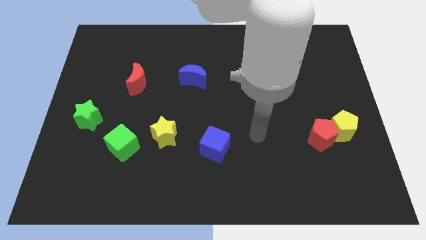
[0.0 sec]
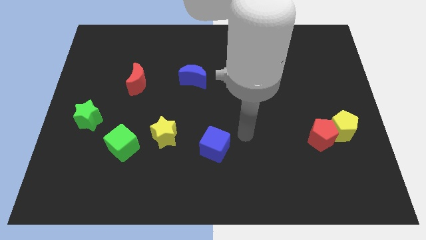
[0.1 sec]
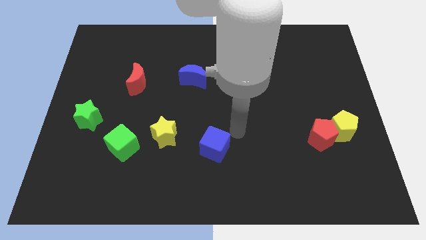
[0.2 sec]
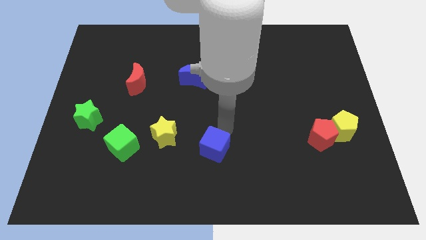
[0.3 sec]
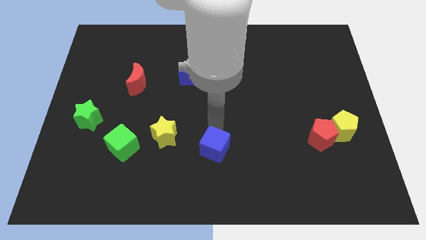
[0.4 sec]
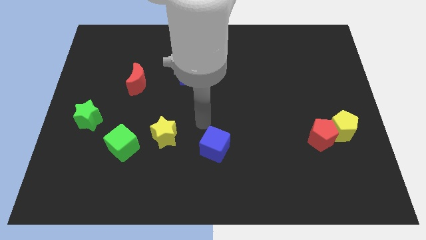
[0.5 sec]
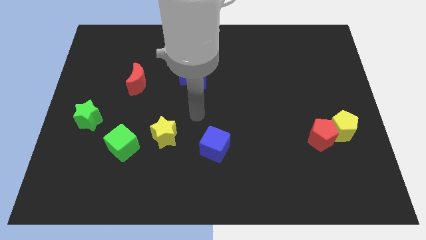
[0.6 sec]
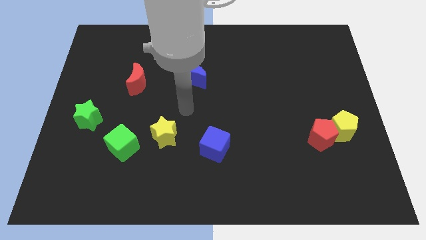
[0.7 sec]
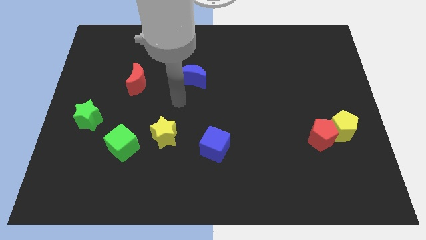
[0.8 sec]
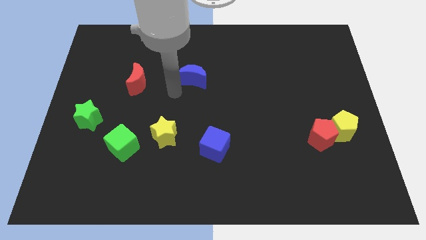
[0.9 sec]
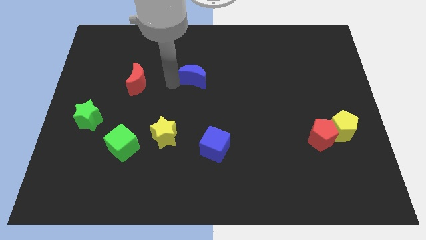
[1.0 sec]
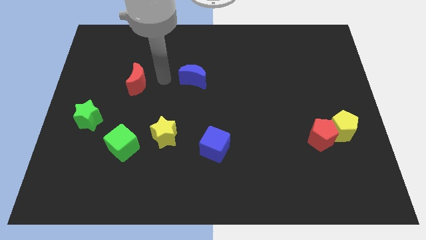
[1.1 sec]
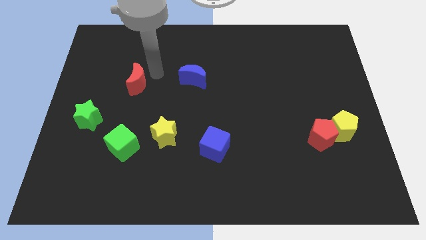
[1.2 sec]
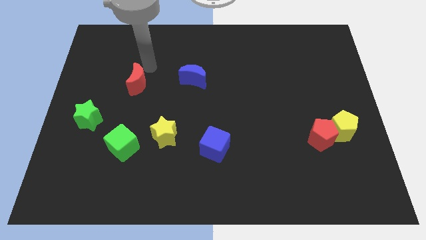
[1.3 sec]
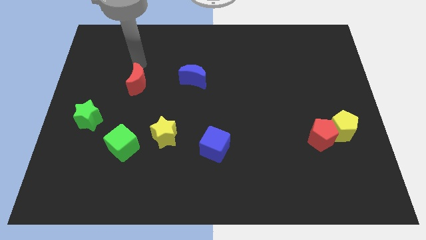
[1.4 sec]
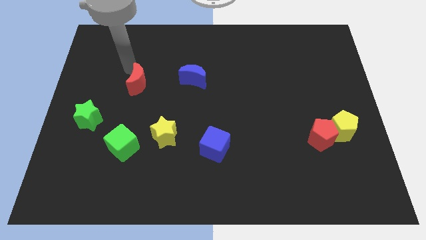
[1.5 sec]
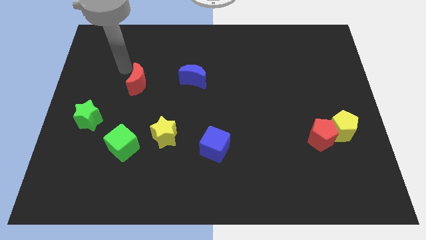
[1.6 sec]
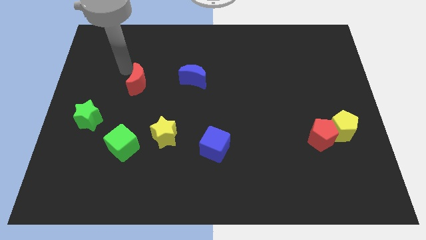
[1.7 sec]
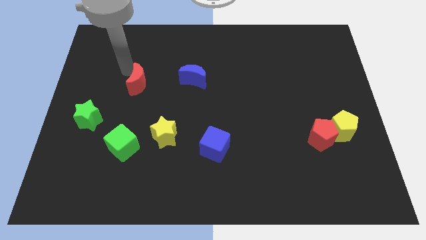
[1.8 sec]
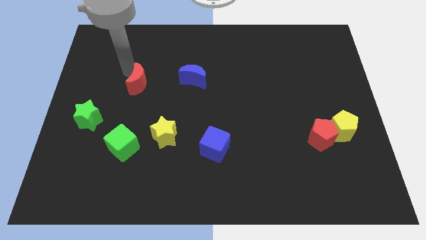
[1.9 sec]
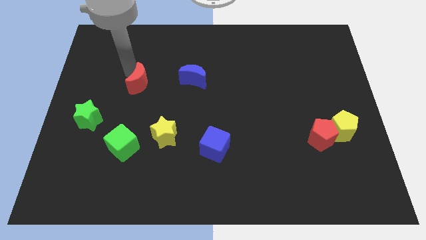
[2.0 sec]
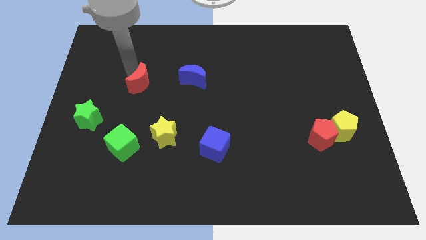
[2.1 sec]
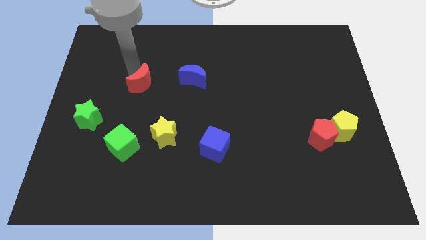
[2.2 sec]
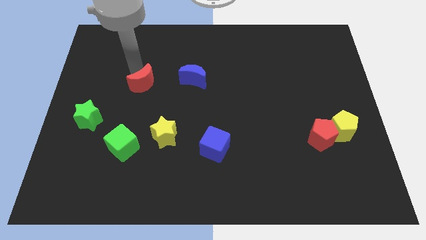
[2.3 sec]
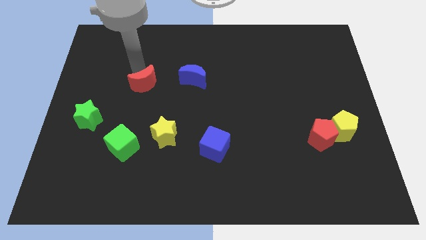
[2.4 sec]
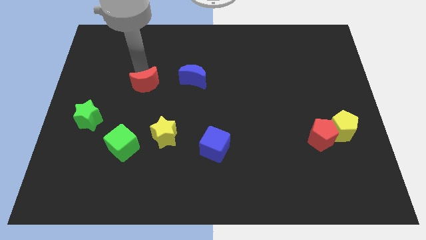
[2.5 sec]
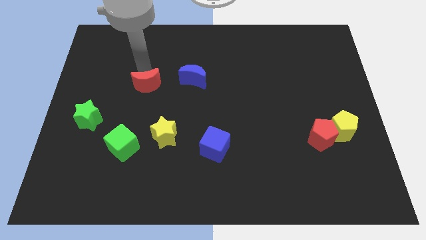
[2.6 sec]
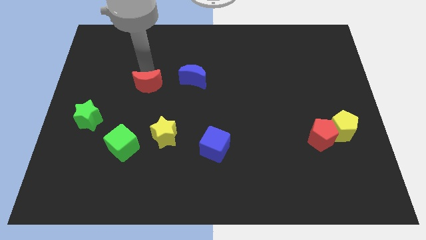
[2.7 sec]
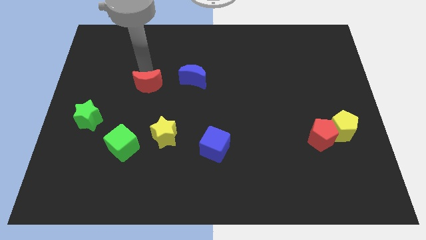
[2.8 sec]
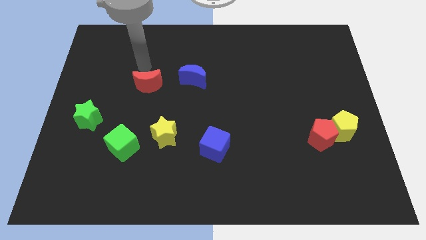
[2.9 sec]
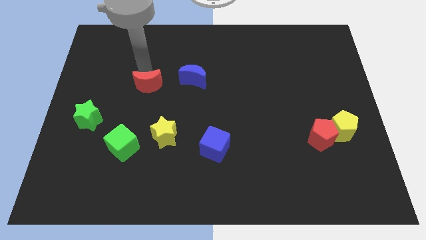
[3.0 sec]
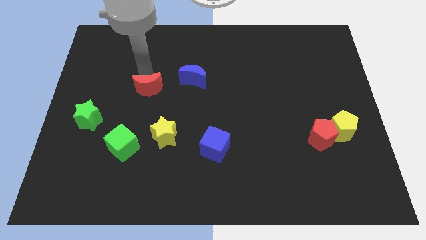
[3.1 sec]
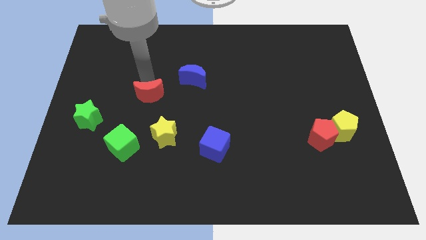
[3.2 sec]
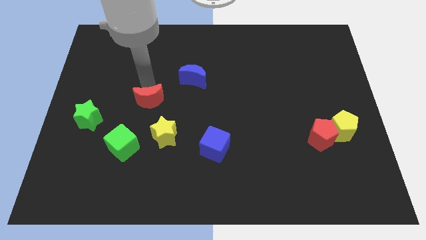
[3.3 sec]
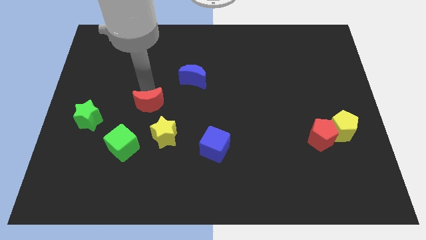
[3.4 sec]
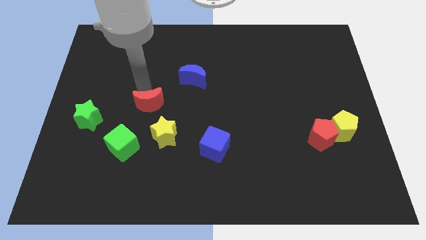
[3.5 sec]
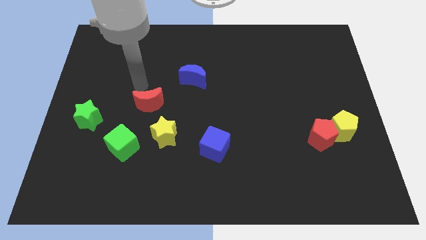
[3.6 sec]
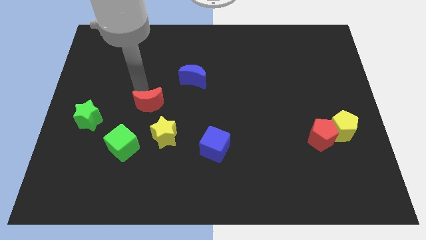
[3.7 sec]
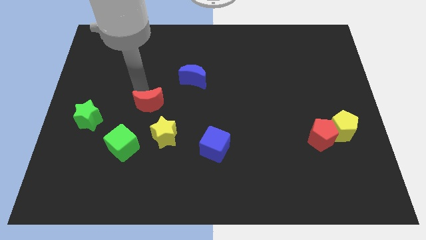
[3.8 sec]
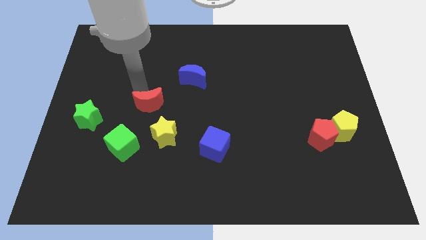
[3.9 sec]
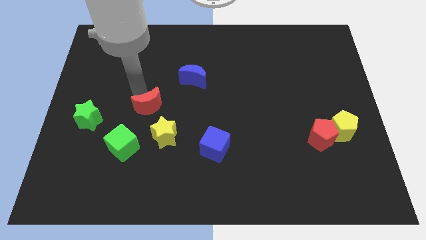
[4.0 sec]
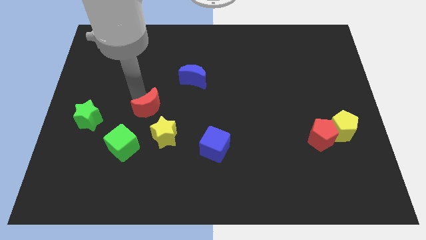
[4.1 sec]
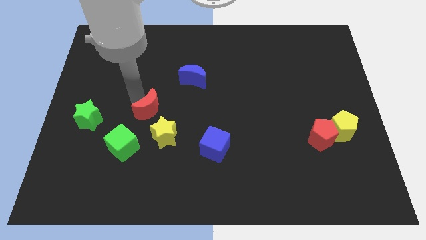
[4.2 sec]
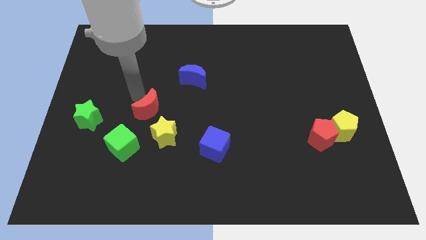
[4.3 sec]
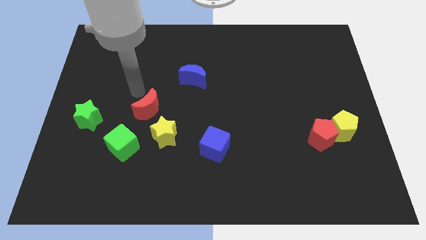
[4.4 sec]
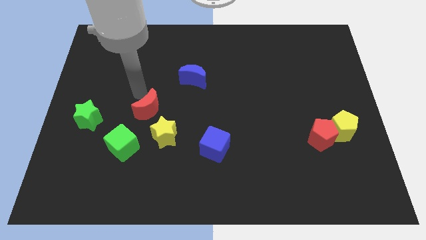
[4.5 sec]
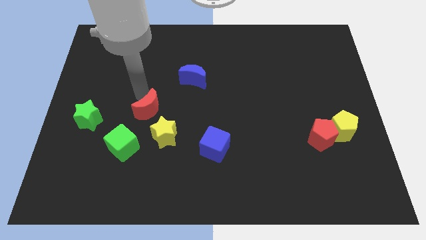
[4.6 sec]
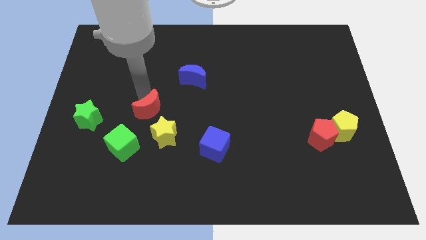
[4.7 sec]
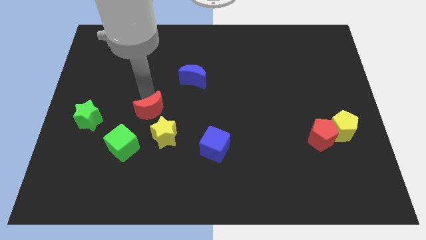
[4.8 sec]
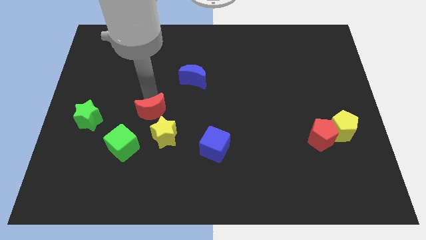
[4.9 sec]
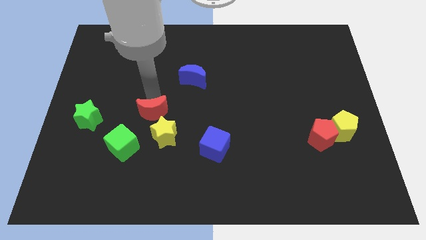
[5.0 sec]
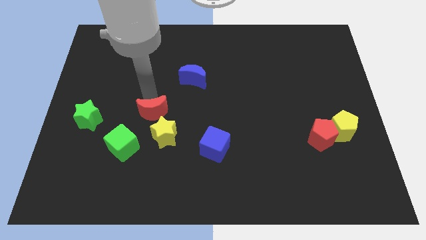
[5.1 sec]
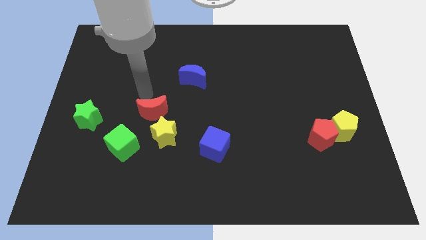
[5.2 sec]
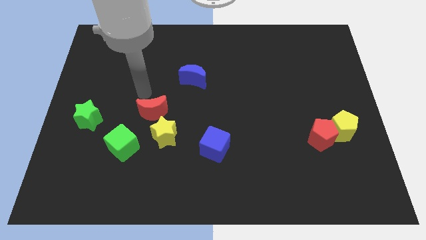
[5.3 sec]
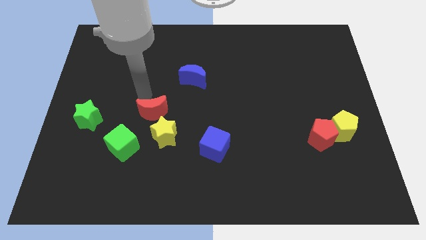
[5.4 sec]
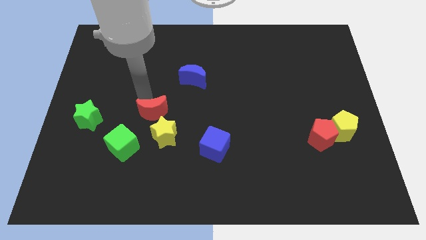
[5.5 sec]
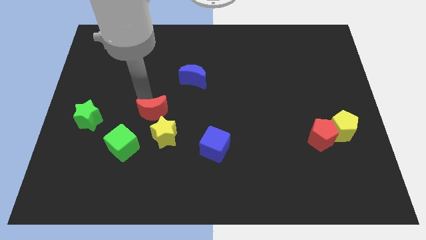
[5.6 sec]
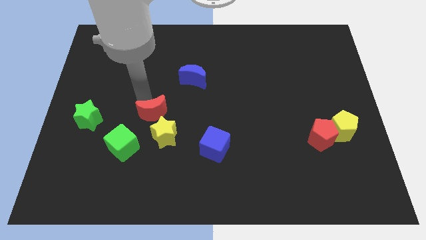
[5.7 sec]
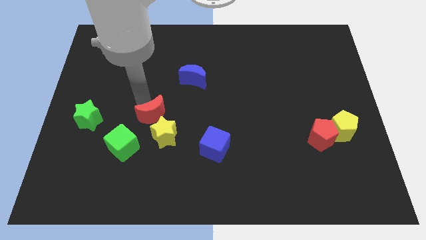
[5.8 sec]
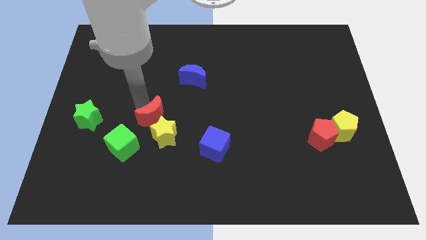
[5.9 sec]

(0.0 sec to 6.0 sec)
slide the red moon next to the yellow star
